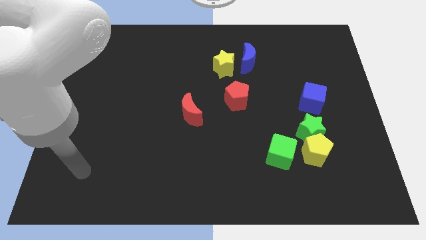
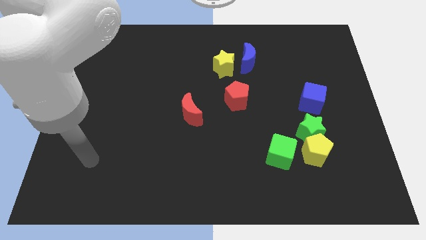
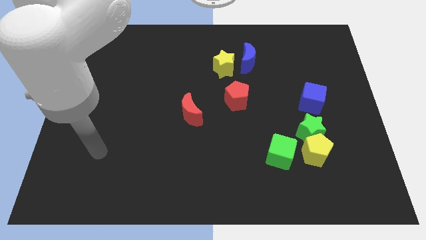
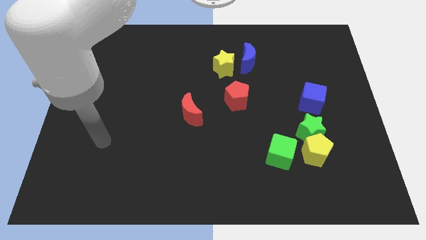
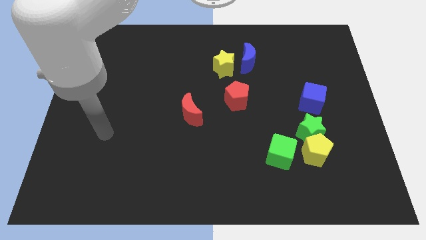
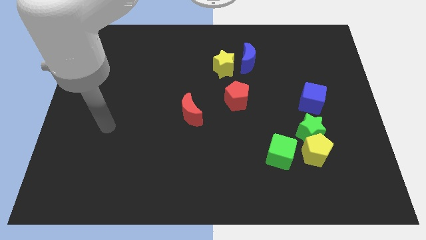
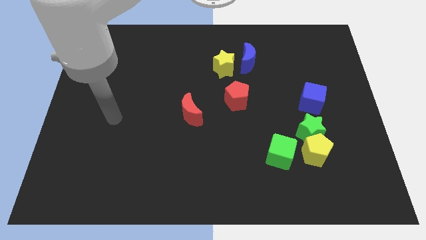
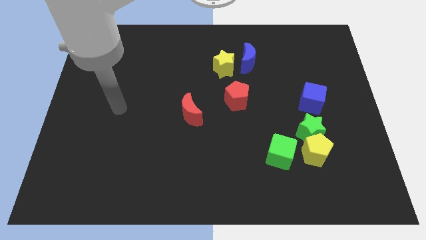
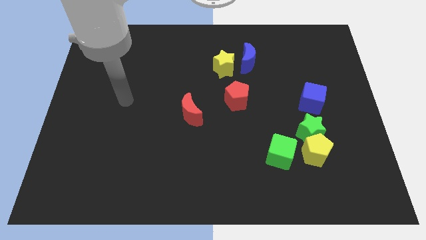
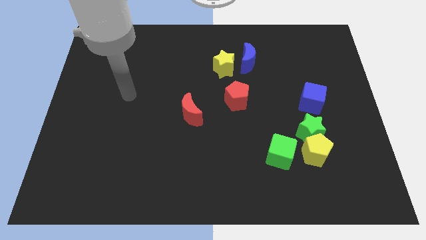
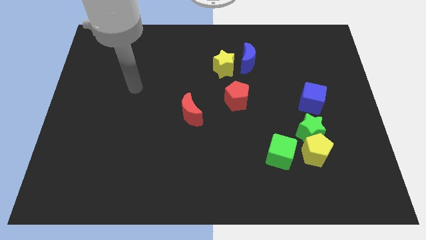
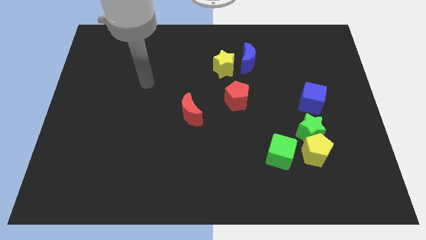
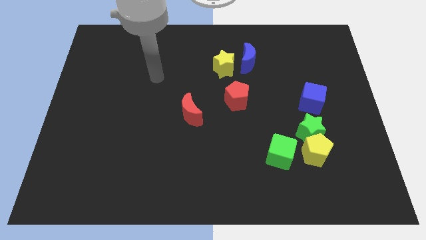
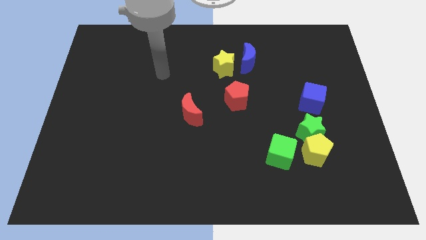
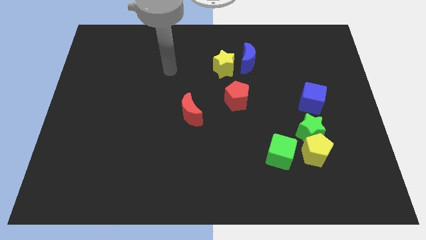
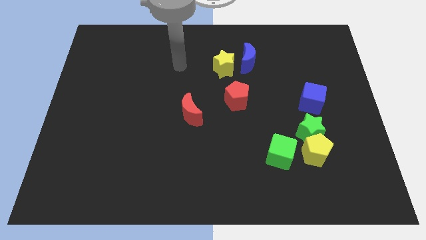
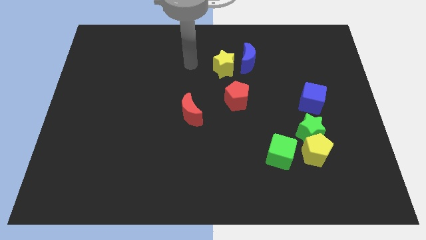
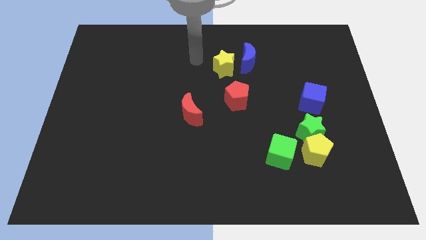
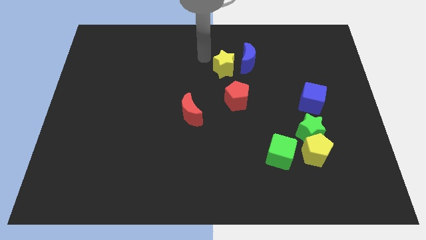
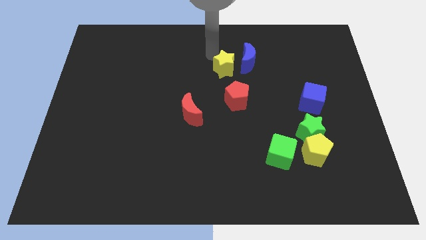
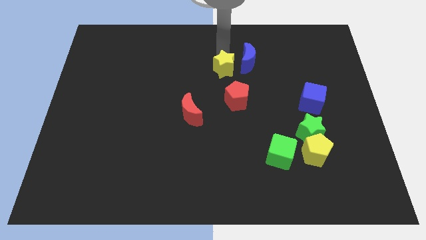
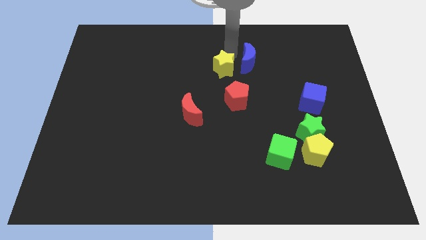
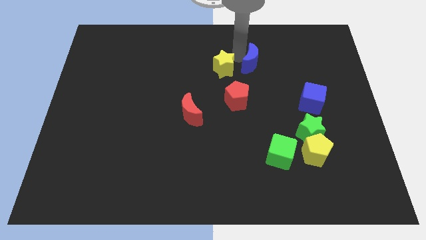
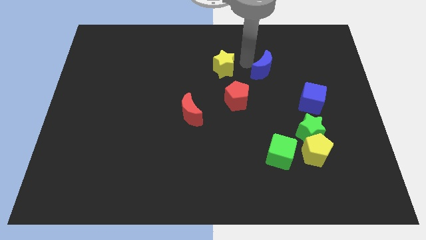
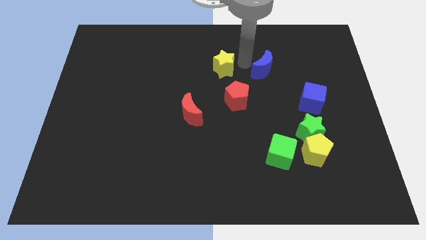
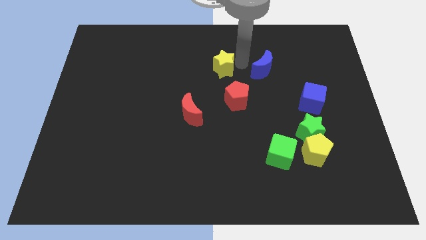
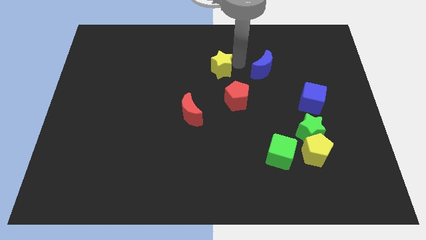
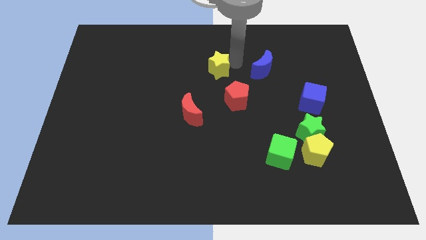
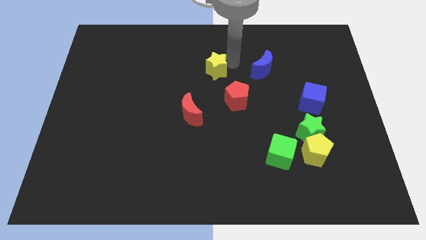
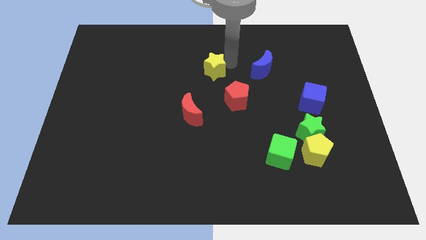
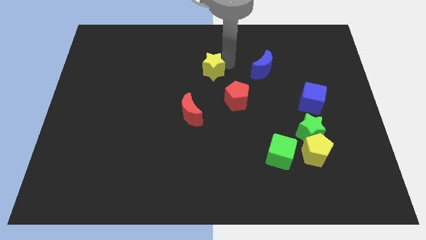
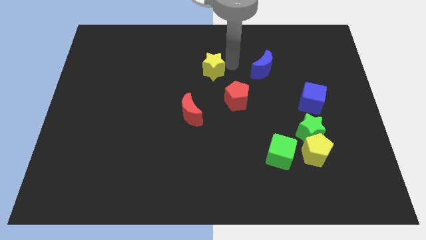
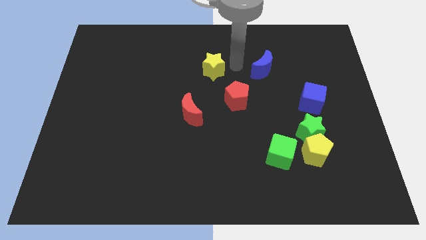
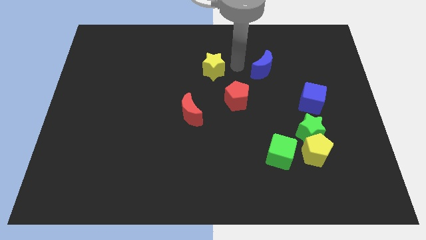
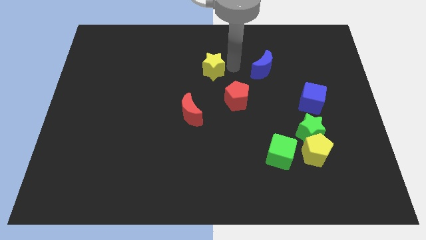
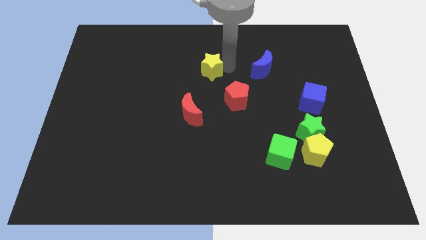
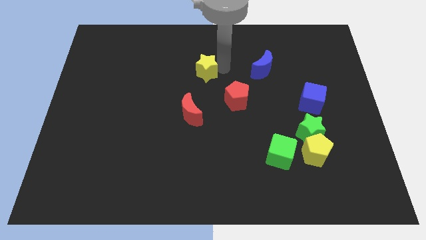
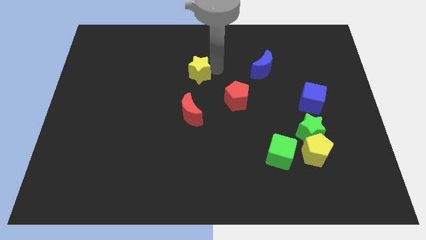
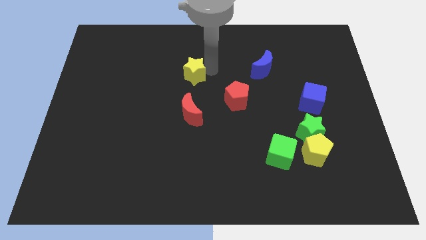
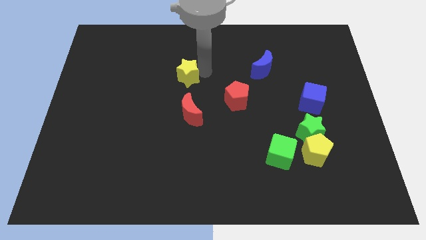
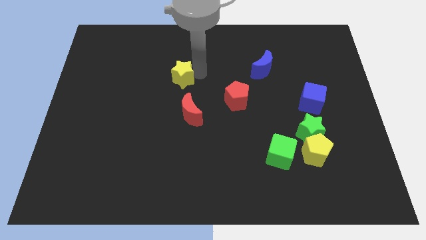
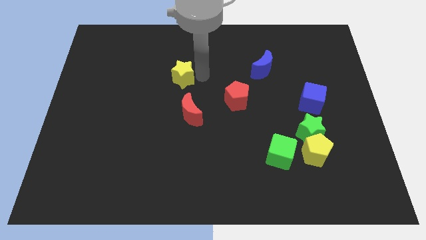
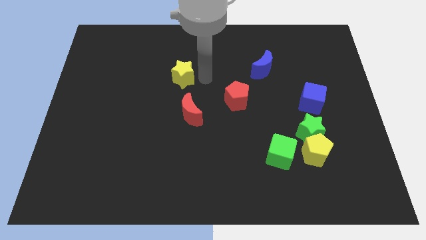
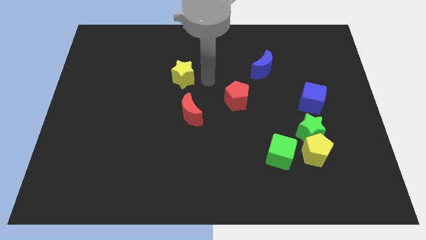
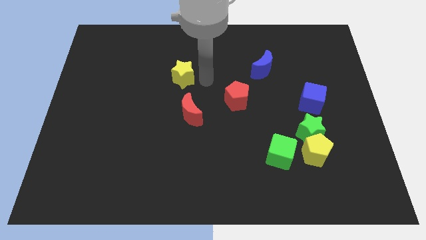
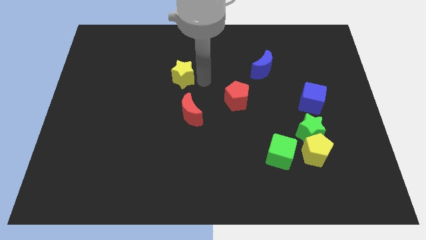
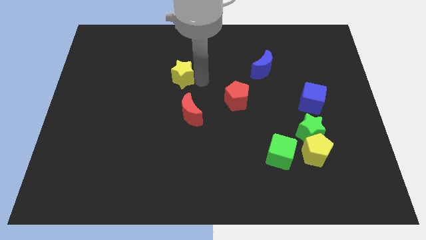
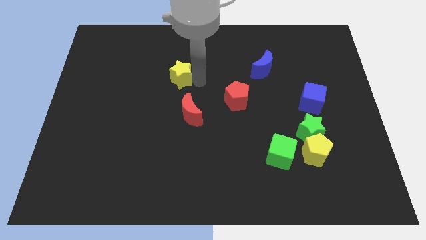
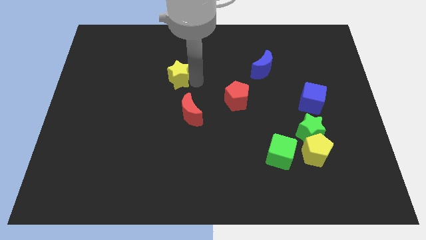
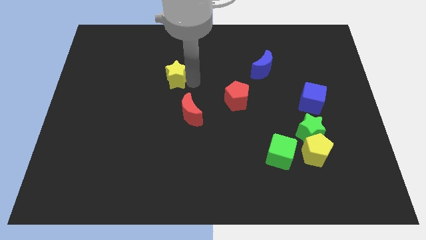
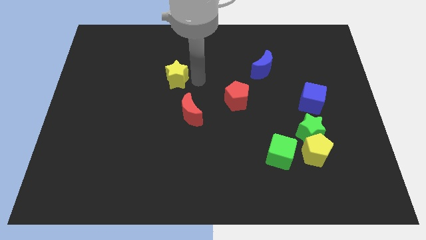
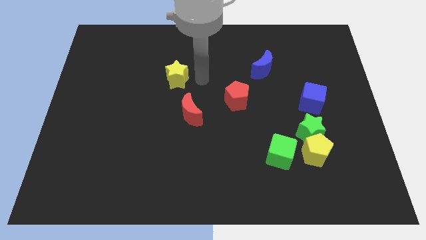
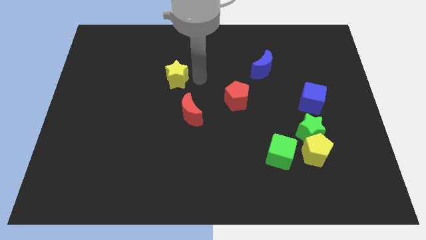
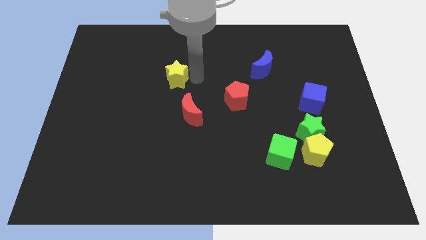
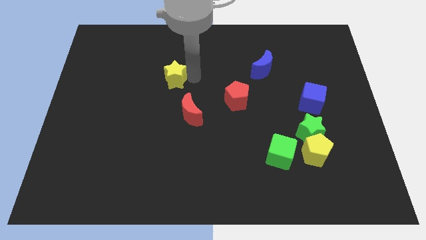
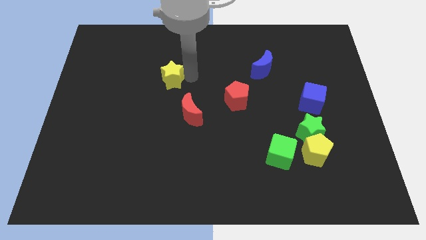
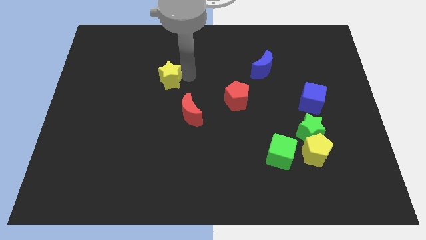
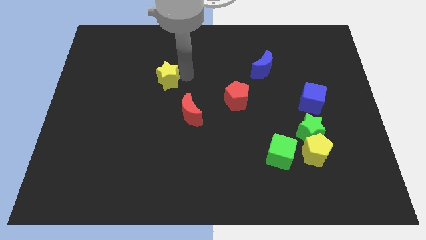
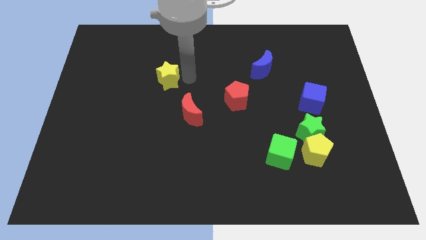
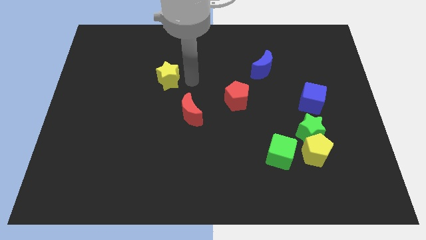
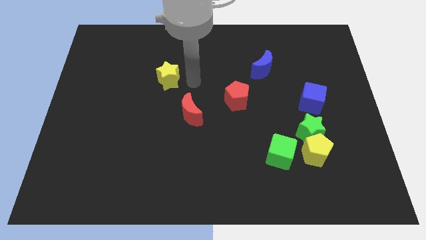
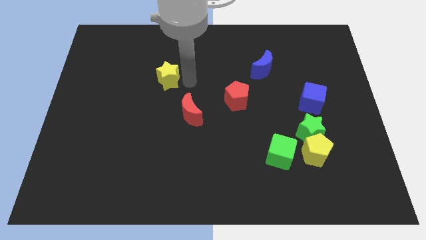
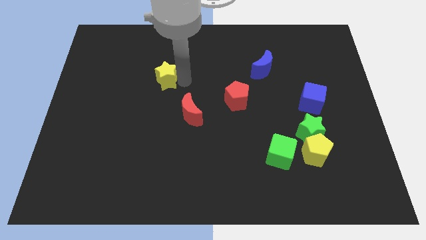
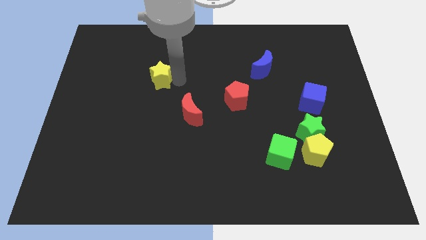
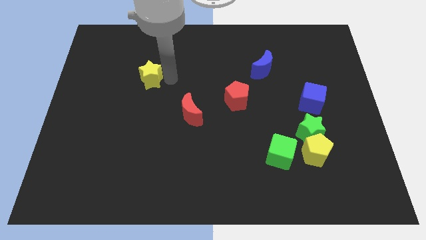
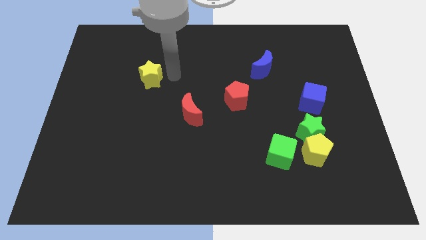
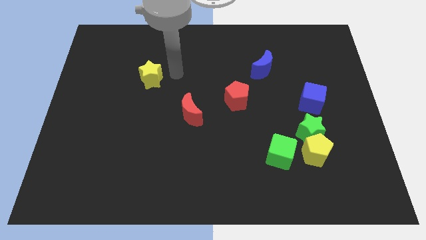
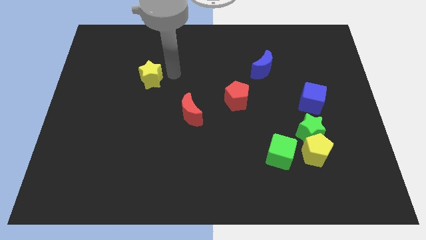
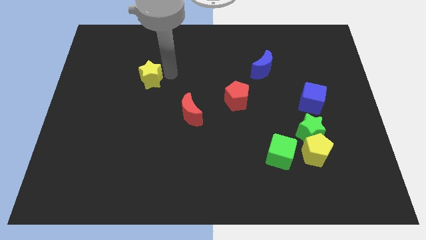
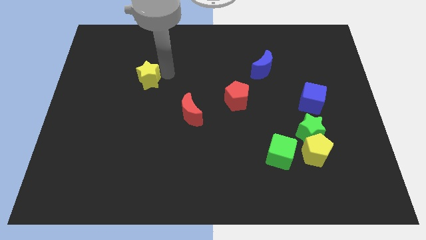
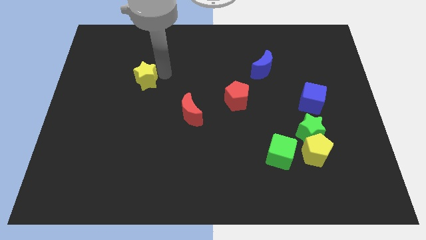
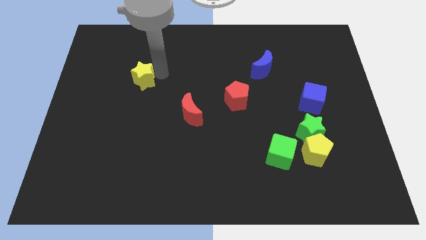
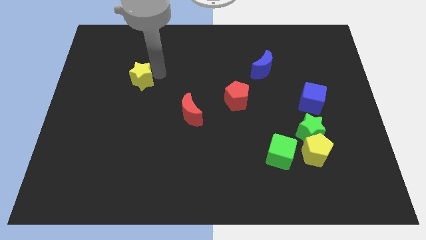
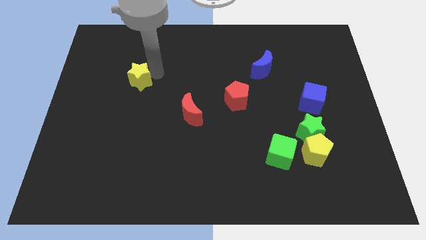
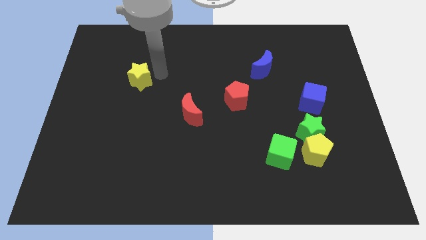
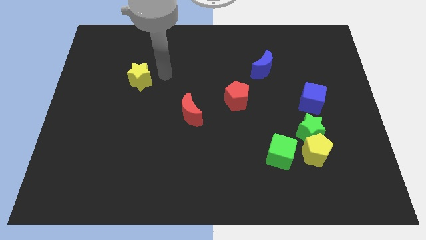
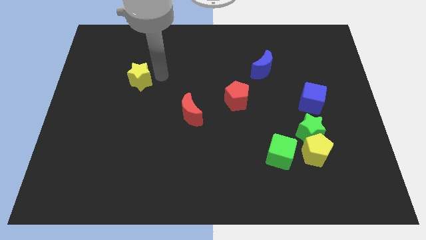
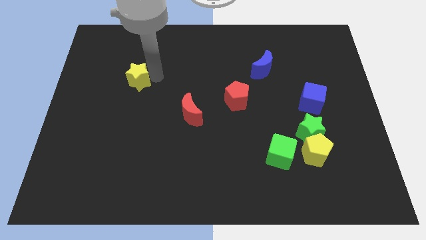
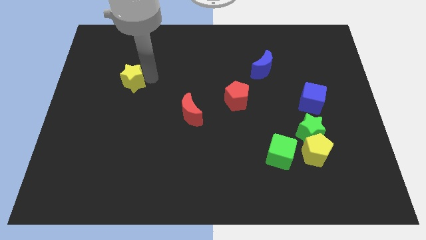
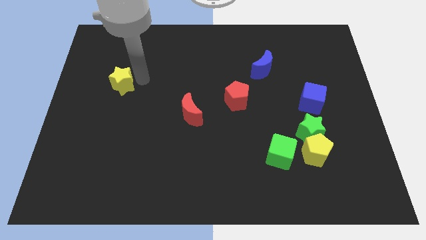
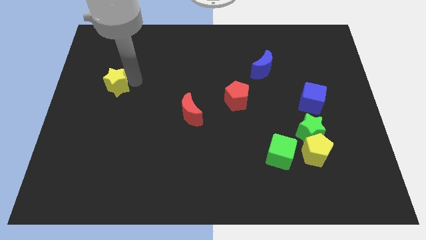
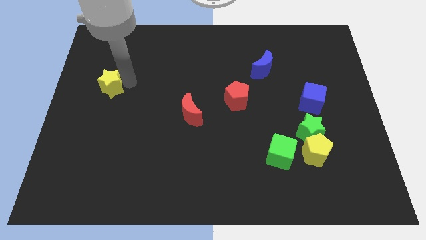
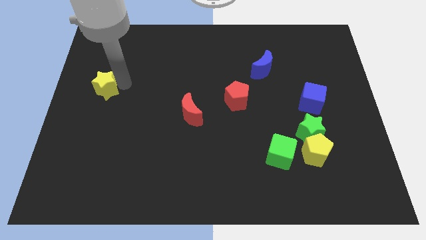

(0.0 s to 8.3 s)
slide the yellow star to the left side of the board
